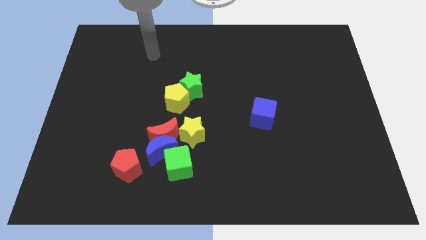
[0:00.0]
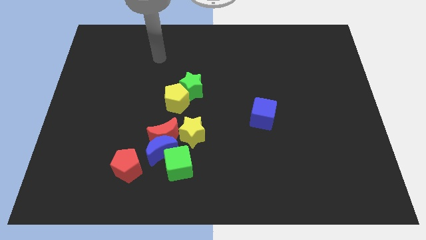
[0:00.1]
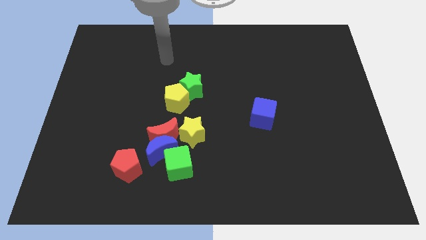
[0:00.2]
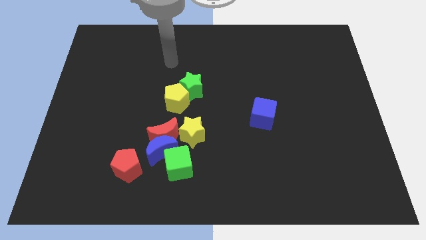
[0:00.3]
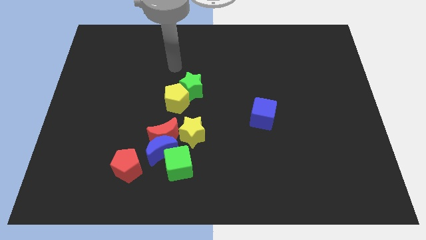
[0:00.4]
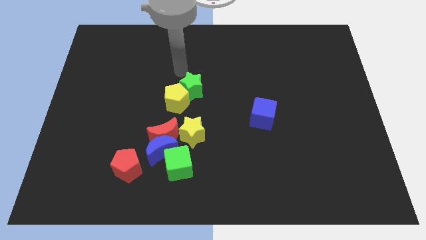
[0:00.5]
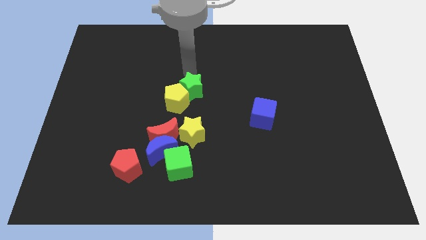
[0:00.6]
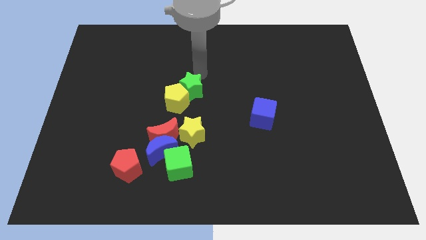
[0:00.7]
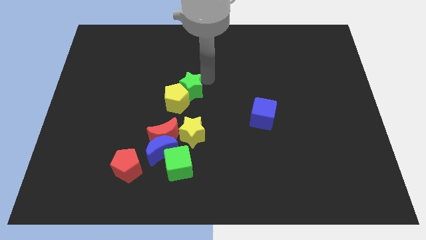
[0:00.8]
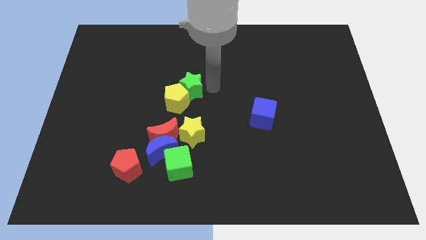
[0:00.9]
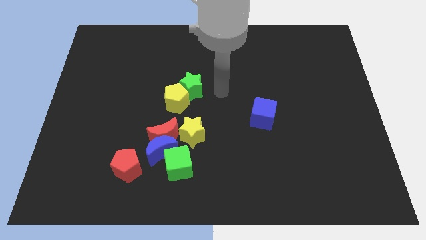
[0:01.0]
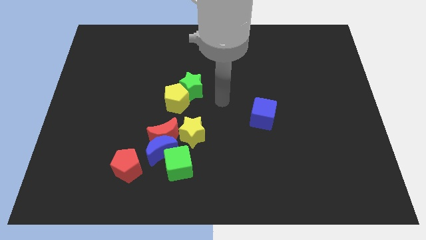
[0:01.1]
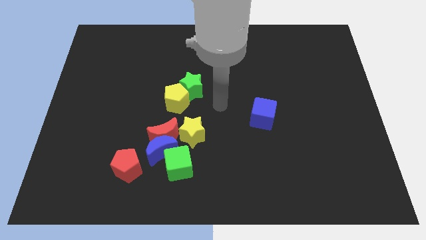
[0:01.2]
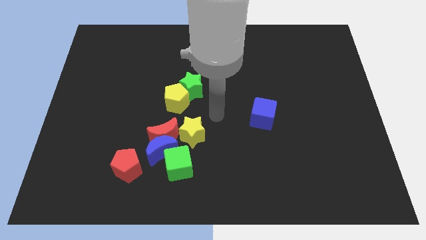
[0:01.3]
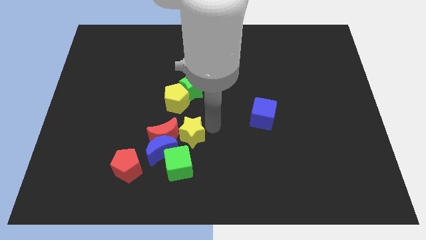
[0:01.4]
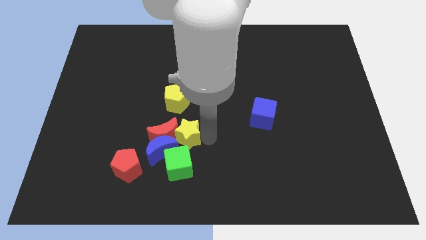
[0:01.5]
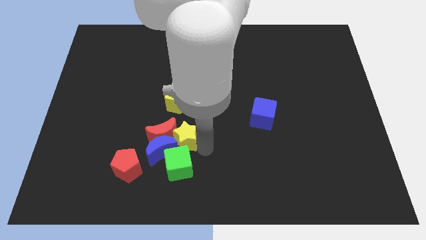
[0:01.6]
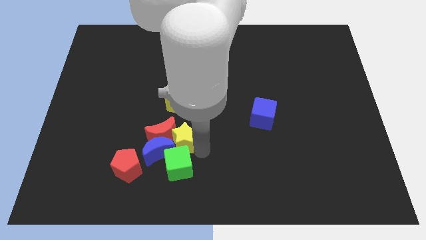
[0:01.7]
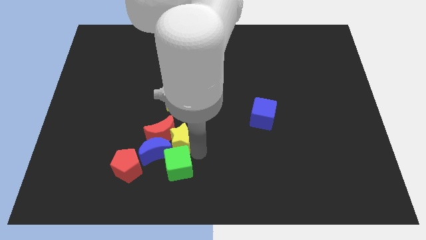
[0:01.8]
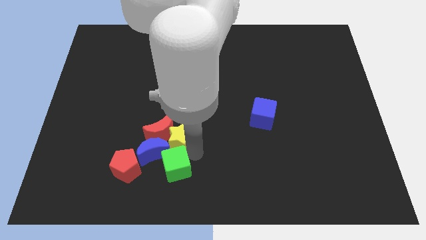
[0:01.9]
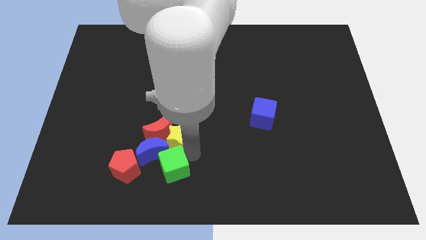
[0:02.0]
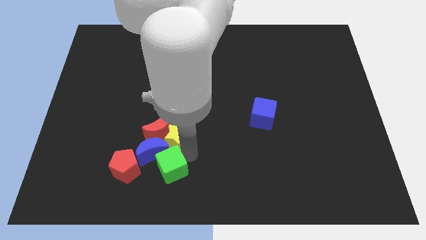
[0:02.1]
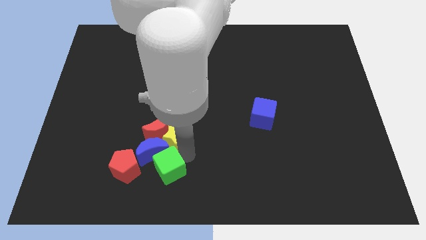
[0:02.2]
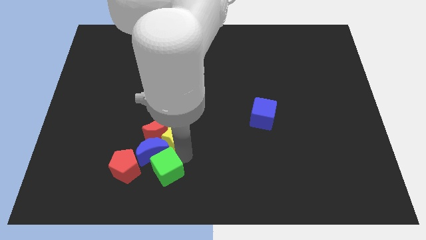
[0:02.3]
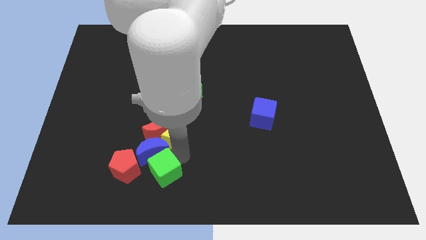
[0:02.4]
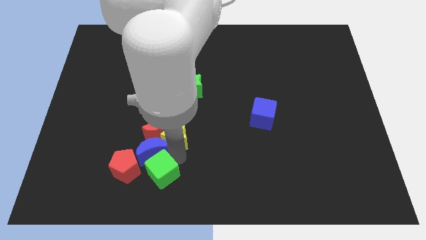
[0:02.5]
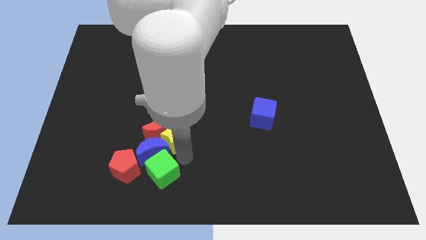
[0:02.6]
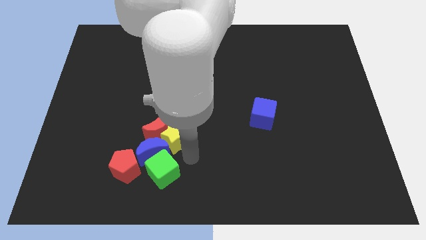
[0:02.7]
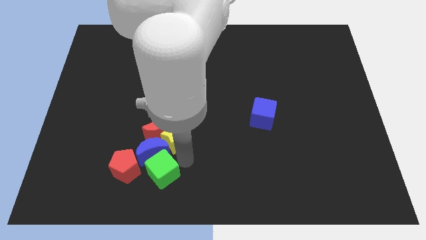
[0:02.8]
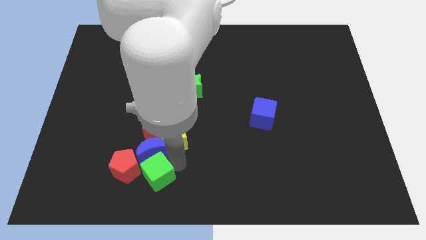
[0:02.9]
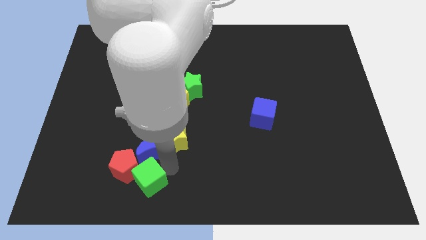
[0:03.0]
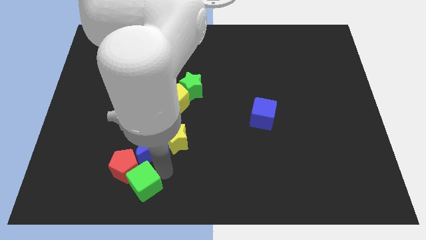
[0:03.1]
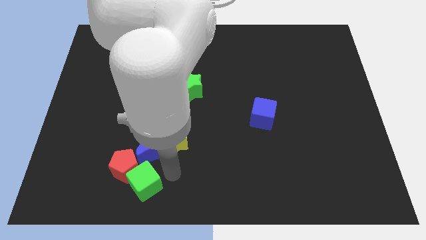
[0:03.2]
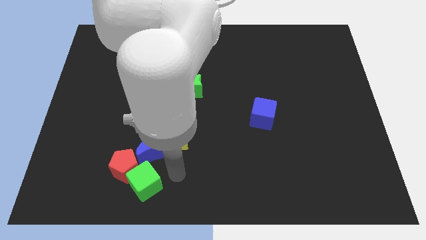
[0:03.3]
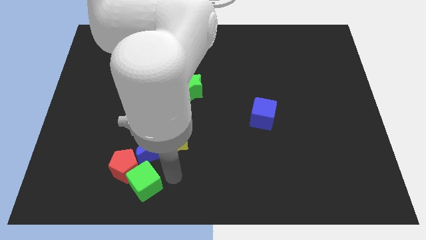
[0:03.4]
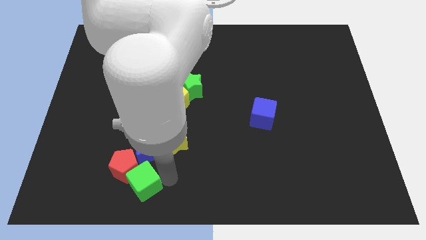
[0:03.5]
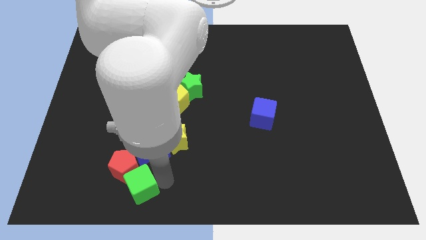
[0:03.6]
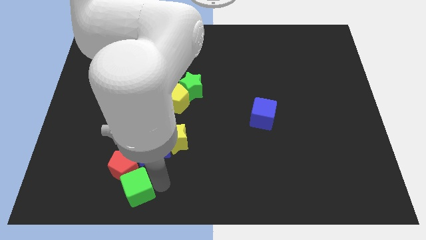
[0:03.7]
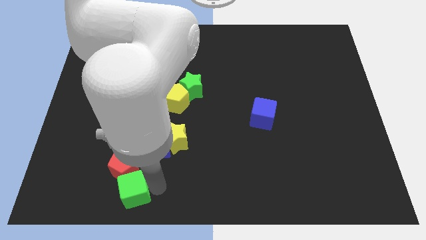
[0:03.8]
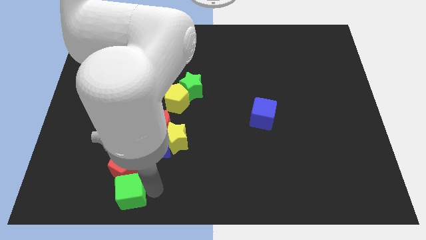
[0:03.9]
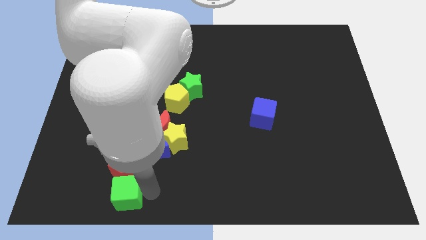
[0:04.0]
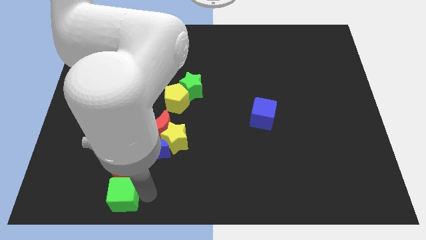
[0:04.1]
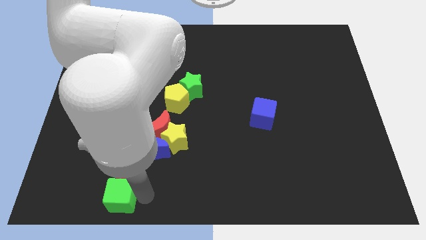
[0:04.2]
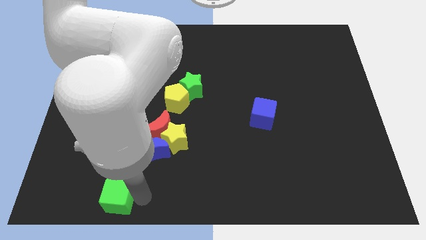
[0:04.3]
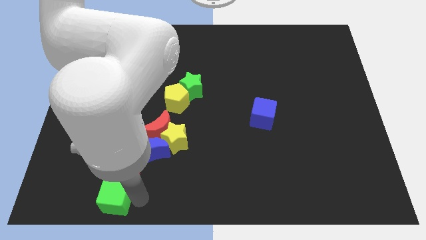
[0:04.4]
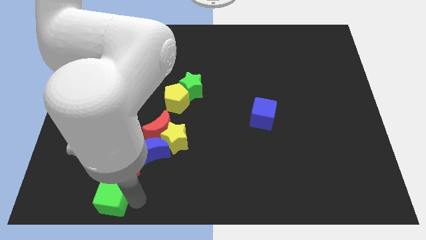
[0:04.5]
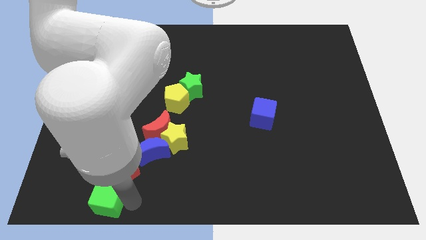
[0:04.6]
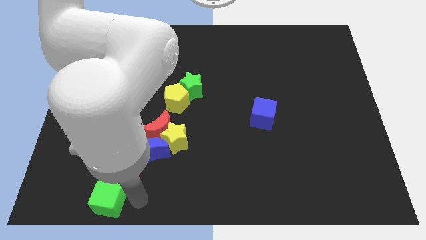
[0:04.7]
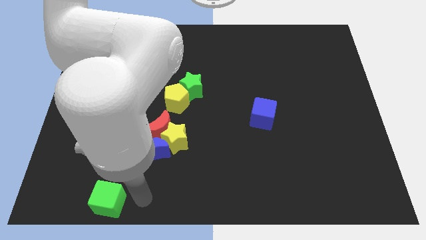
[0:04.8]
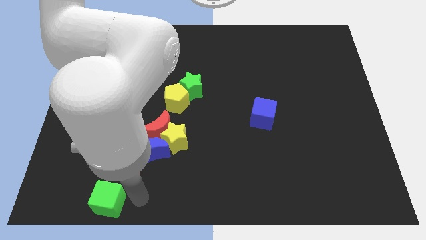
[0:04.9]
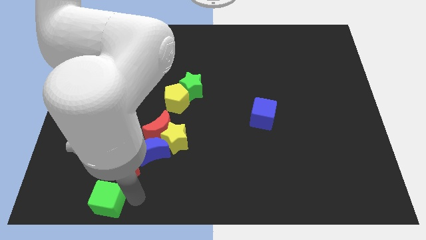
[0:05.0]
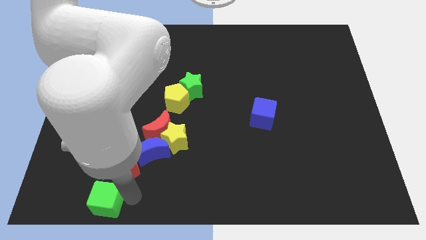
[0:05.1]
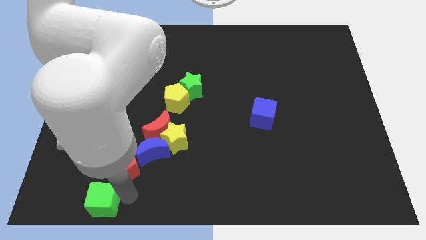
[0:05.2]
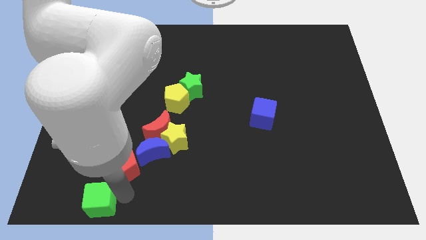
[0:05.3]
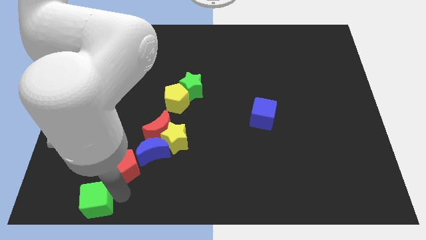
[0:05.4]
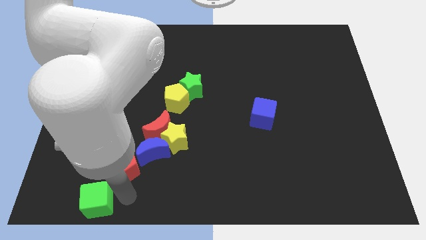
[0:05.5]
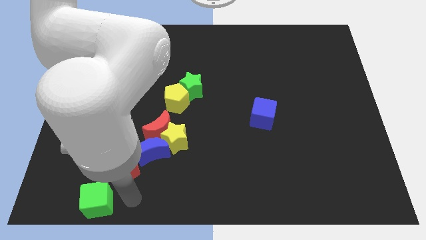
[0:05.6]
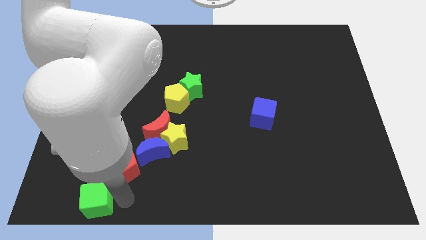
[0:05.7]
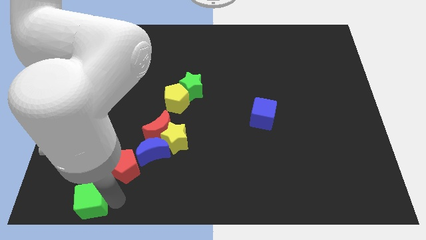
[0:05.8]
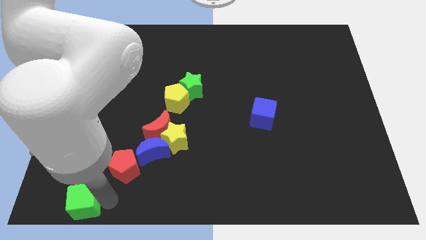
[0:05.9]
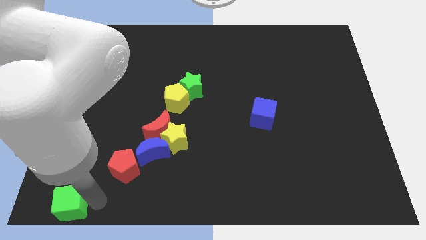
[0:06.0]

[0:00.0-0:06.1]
push the green cube to the bottom left
